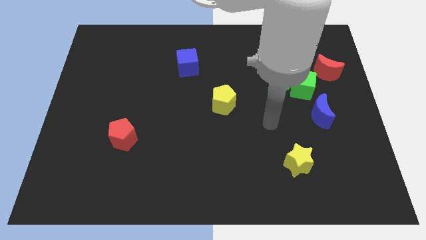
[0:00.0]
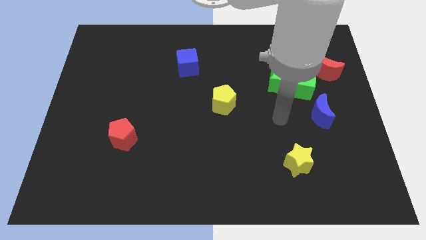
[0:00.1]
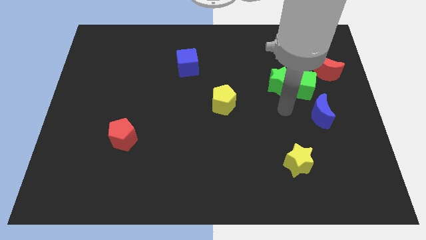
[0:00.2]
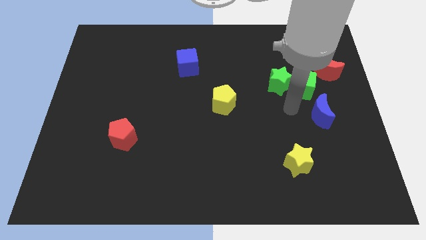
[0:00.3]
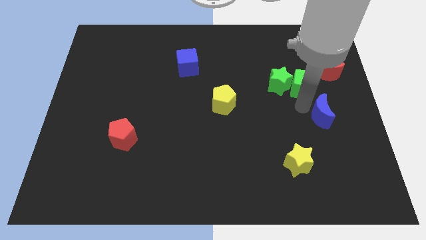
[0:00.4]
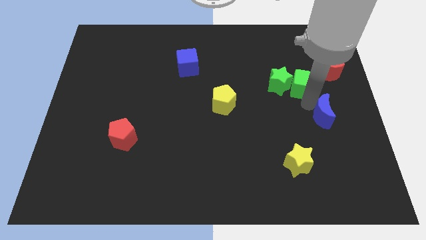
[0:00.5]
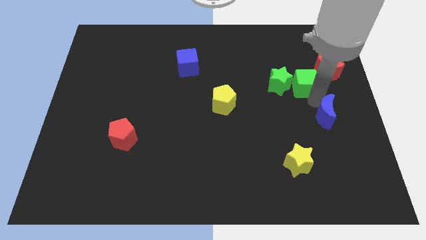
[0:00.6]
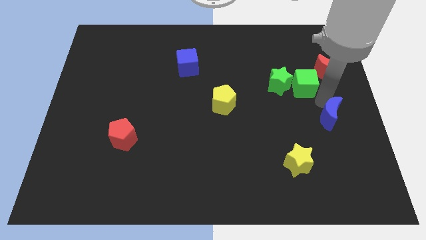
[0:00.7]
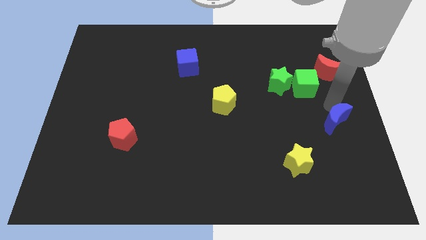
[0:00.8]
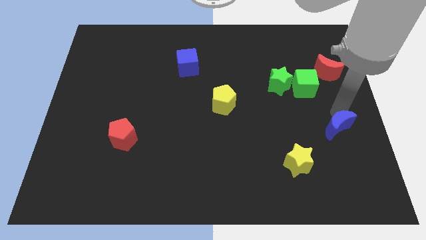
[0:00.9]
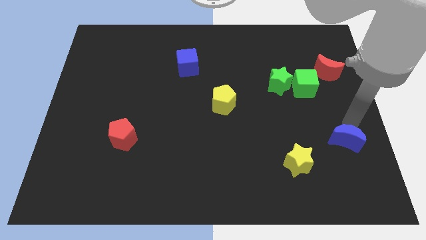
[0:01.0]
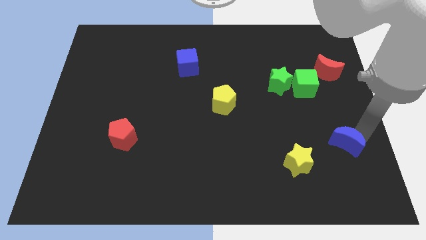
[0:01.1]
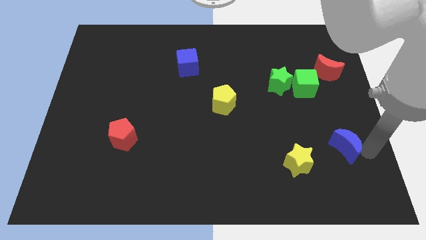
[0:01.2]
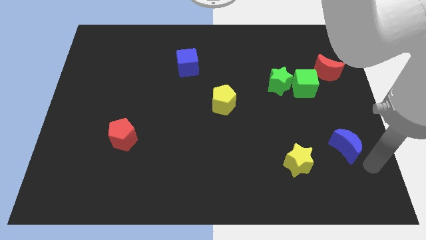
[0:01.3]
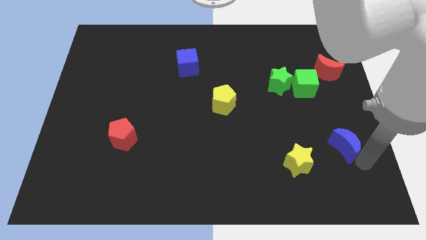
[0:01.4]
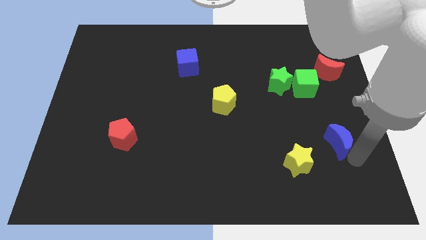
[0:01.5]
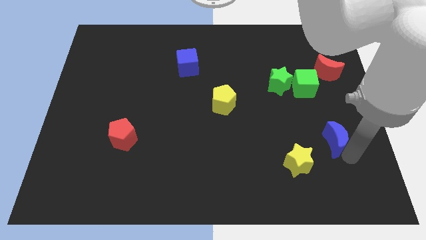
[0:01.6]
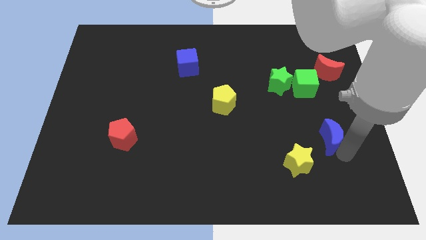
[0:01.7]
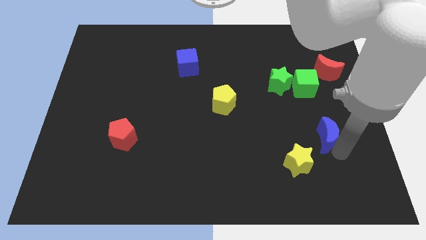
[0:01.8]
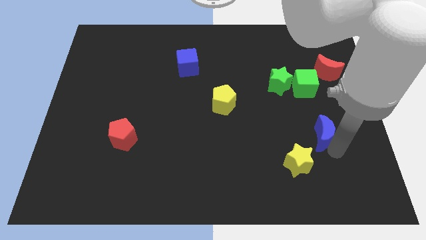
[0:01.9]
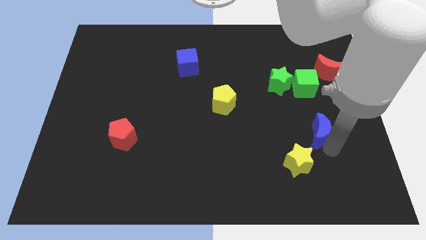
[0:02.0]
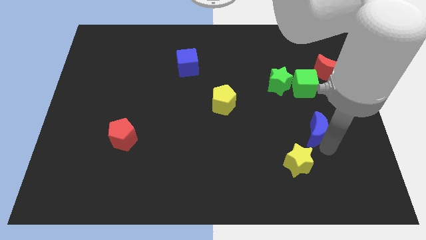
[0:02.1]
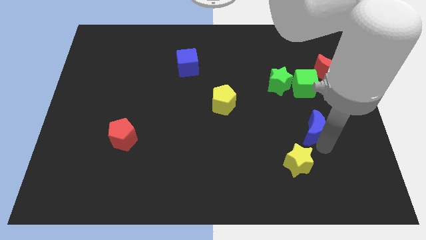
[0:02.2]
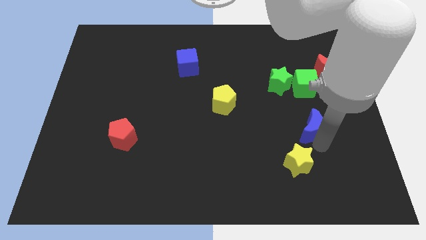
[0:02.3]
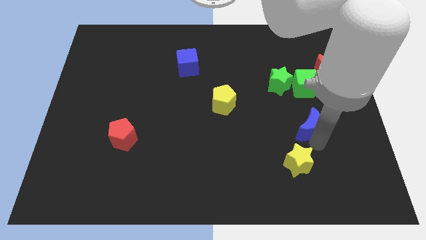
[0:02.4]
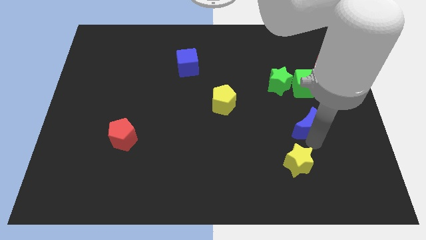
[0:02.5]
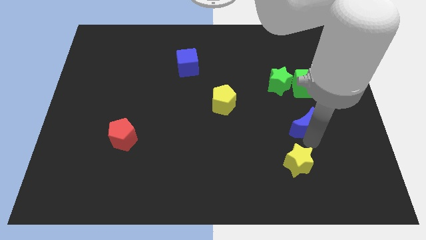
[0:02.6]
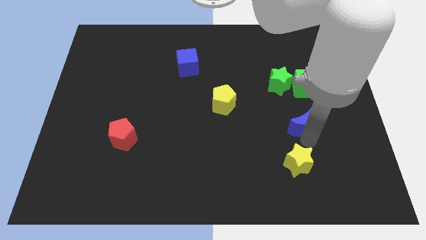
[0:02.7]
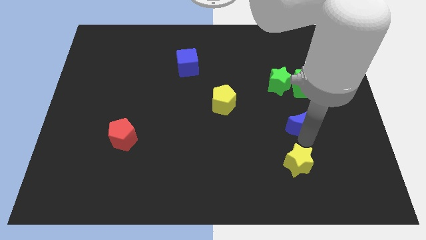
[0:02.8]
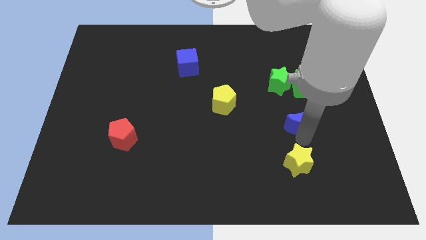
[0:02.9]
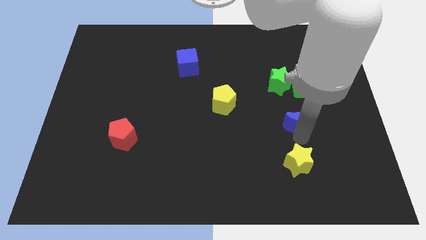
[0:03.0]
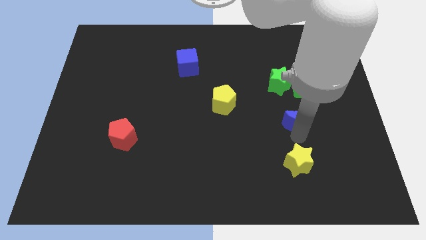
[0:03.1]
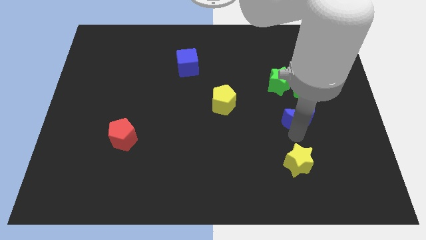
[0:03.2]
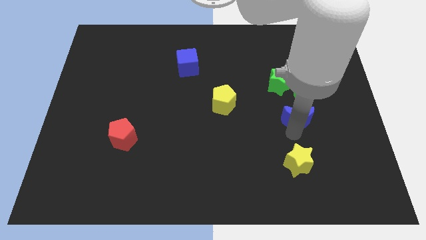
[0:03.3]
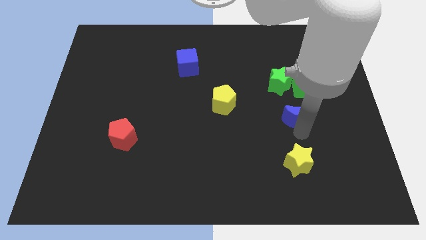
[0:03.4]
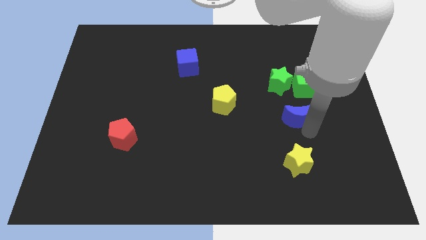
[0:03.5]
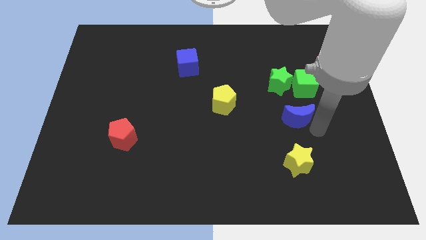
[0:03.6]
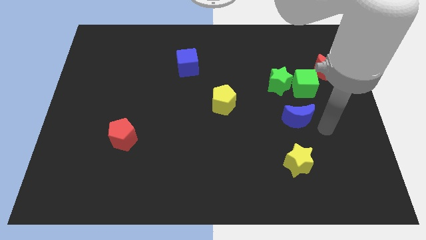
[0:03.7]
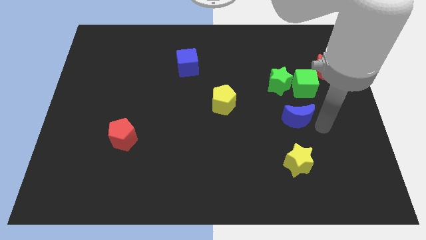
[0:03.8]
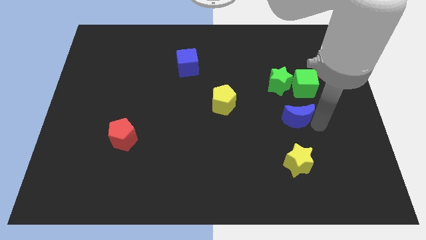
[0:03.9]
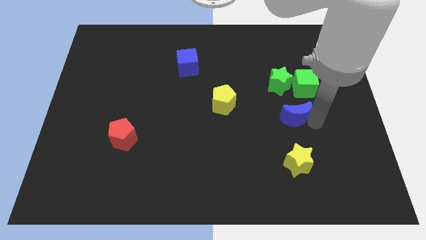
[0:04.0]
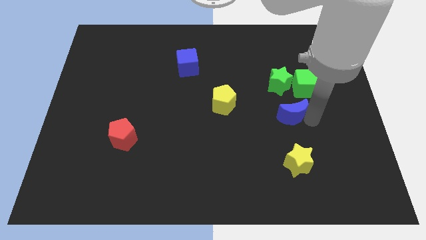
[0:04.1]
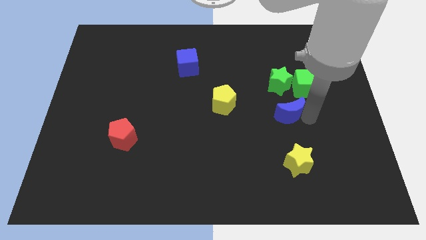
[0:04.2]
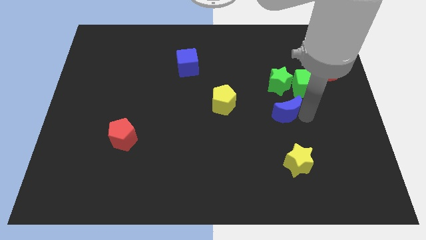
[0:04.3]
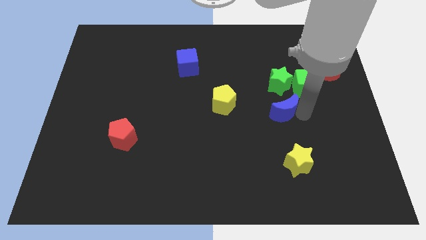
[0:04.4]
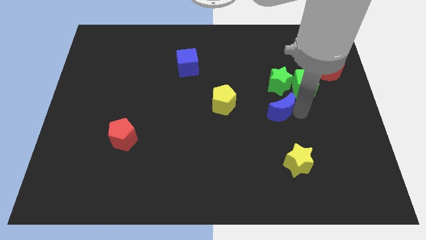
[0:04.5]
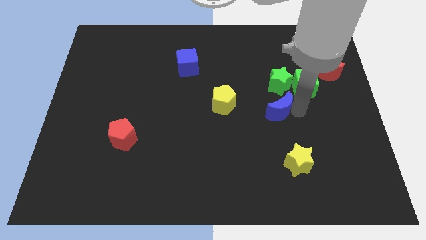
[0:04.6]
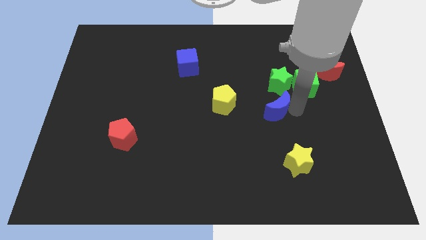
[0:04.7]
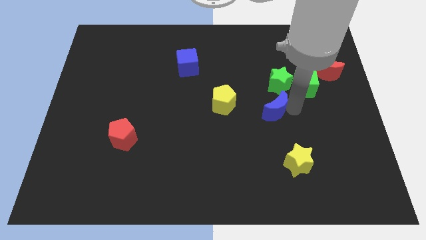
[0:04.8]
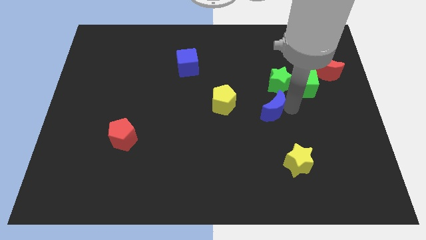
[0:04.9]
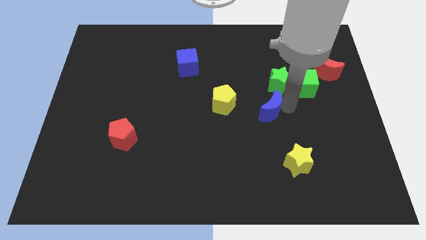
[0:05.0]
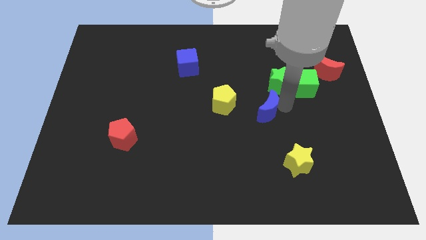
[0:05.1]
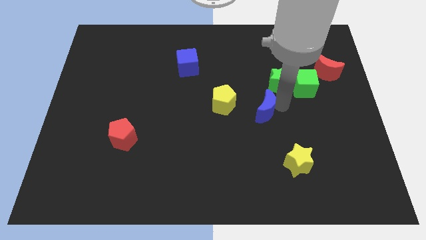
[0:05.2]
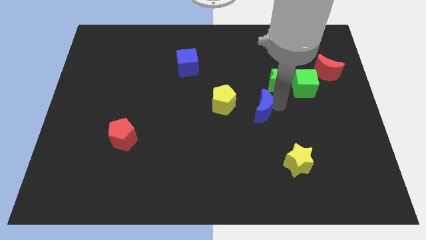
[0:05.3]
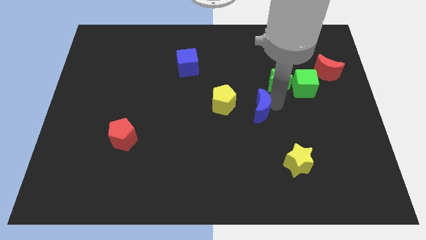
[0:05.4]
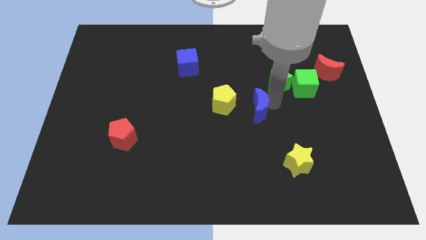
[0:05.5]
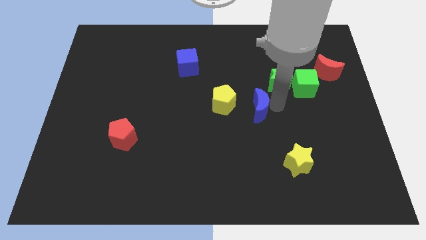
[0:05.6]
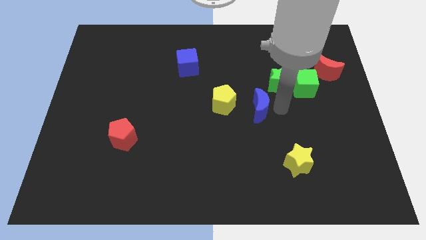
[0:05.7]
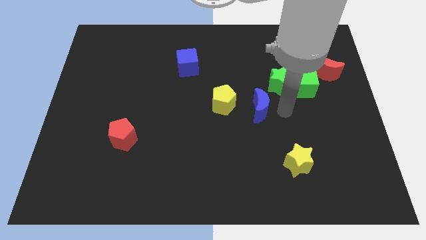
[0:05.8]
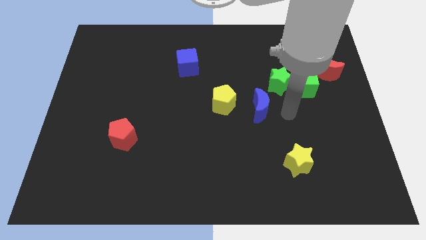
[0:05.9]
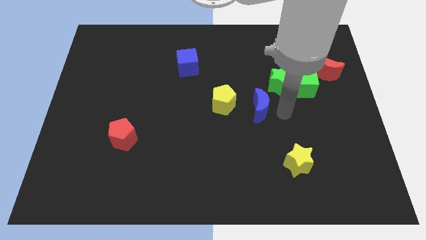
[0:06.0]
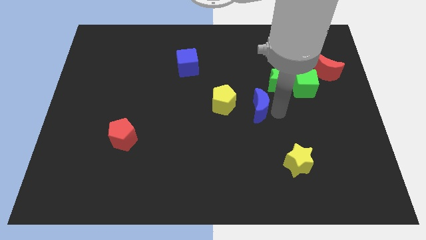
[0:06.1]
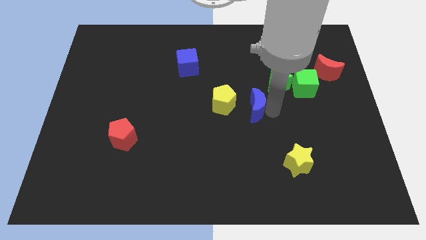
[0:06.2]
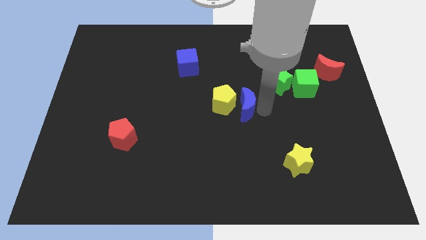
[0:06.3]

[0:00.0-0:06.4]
put the blue moon next to the yellow pentagon
